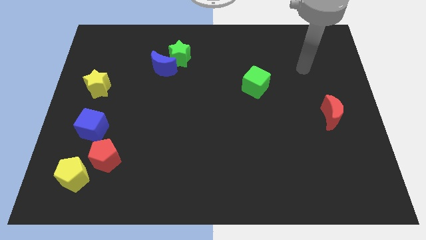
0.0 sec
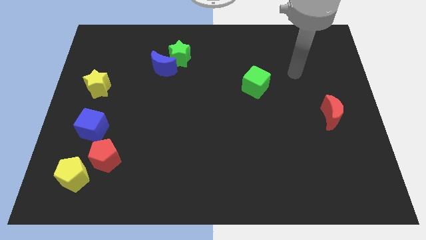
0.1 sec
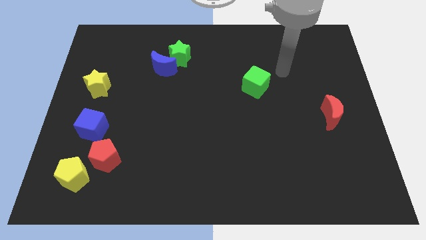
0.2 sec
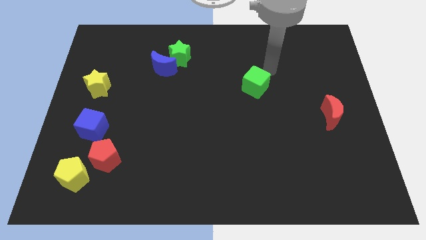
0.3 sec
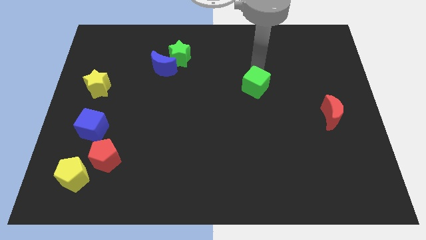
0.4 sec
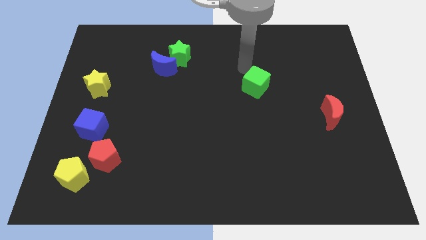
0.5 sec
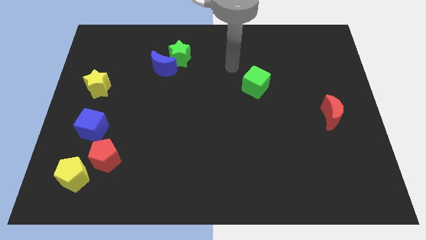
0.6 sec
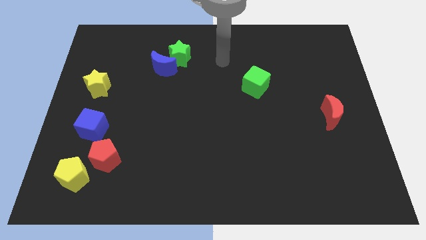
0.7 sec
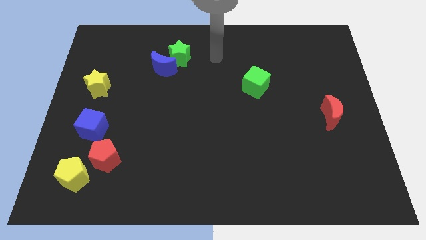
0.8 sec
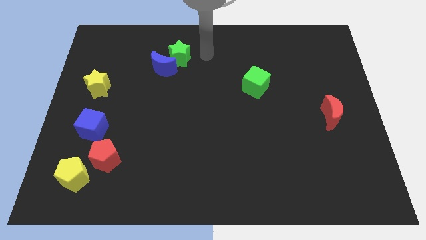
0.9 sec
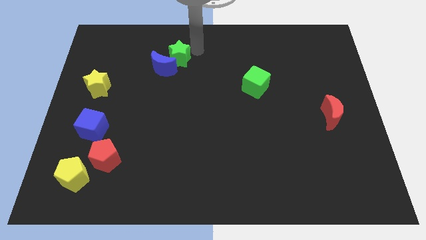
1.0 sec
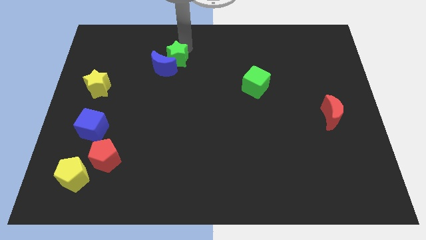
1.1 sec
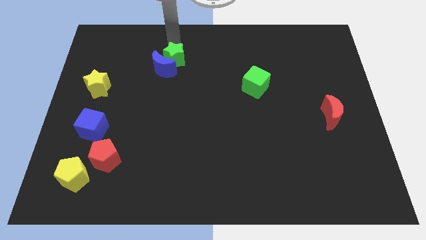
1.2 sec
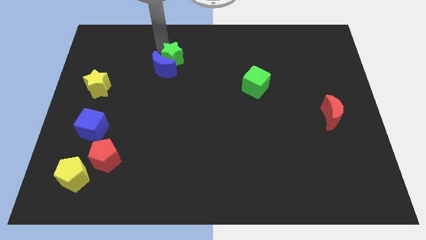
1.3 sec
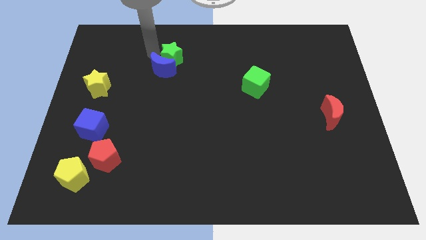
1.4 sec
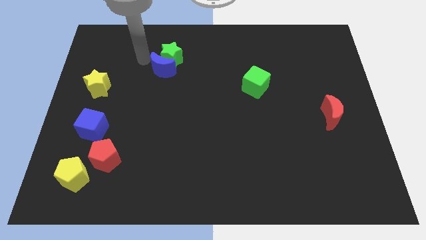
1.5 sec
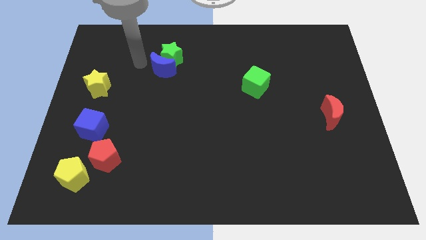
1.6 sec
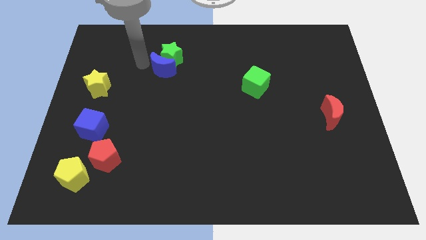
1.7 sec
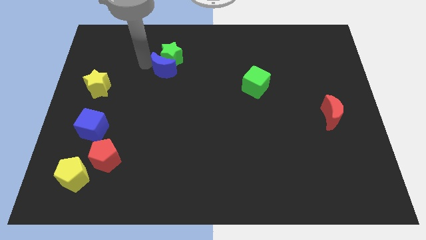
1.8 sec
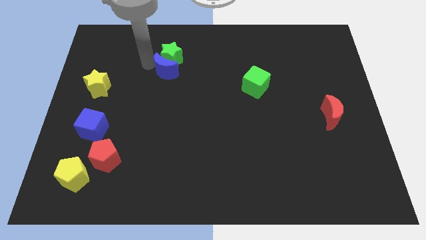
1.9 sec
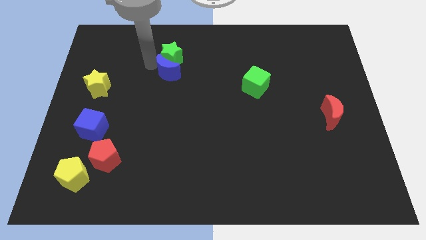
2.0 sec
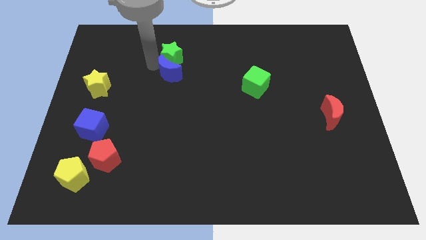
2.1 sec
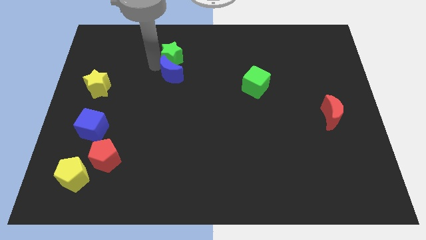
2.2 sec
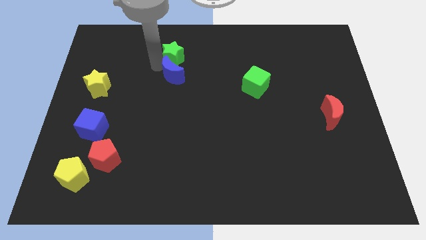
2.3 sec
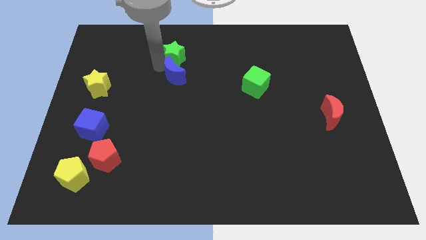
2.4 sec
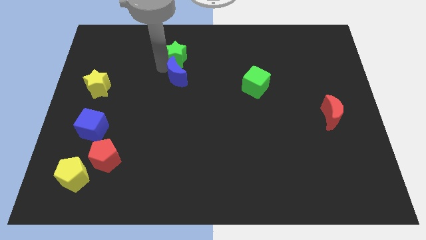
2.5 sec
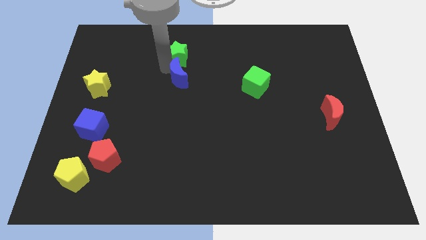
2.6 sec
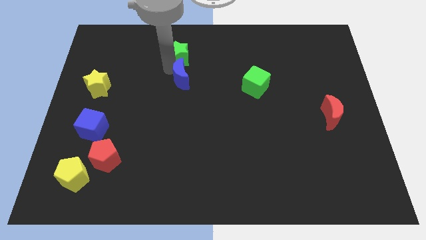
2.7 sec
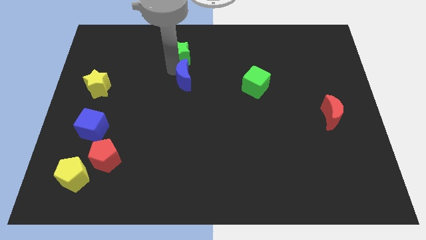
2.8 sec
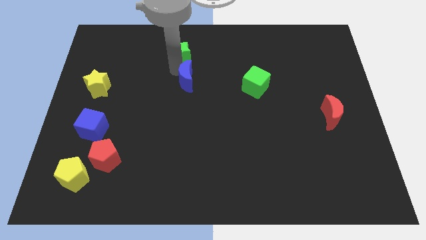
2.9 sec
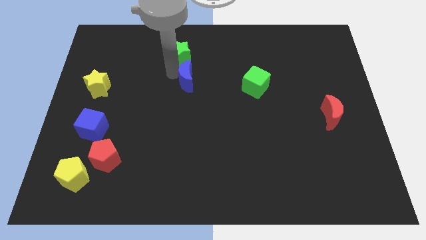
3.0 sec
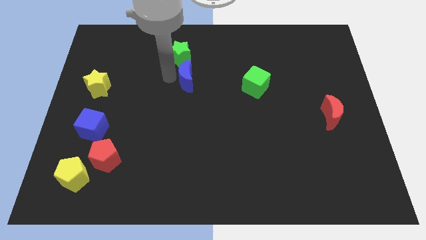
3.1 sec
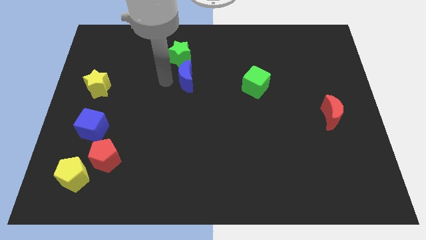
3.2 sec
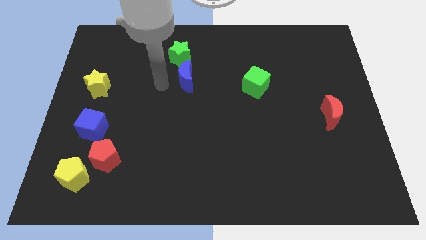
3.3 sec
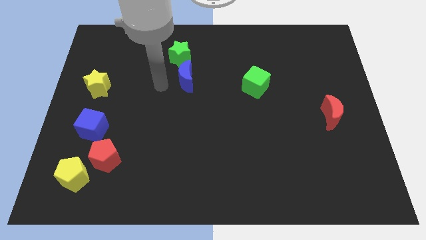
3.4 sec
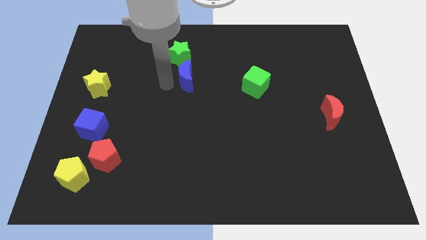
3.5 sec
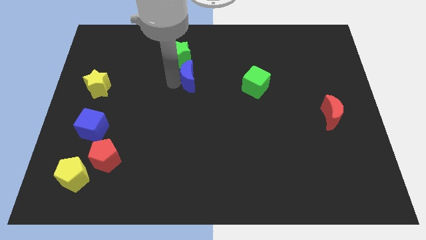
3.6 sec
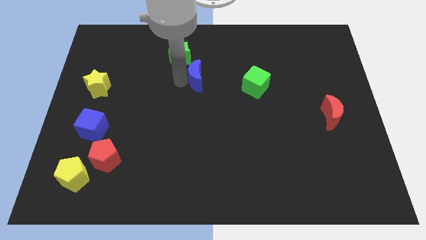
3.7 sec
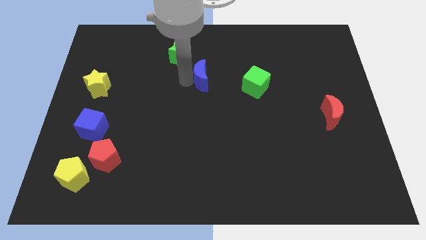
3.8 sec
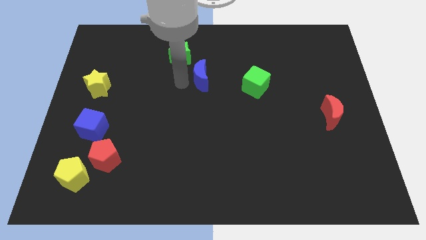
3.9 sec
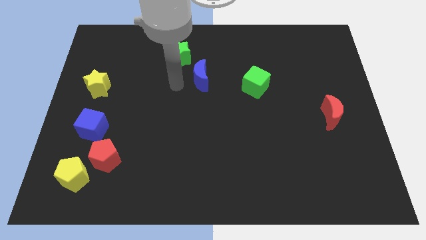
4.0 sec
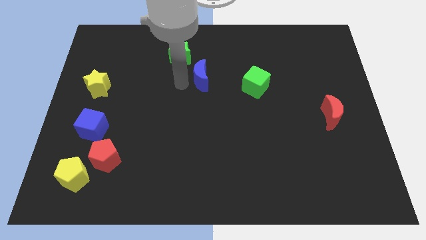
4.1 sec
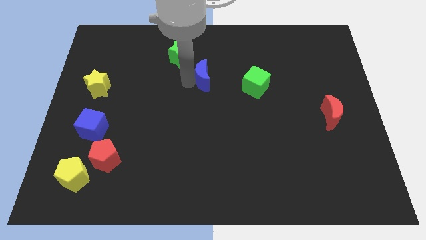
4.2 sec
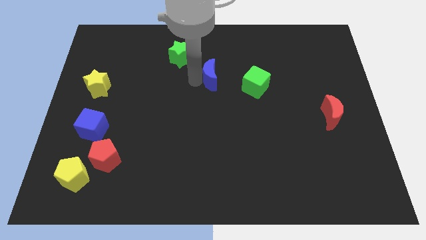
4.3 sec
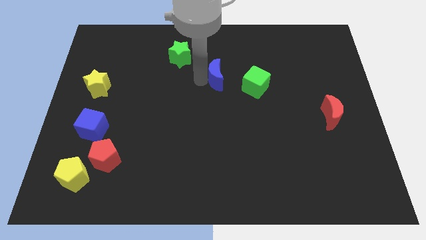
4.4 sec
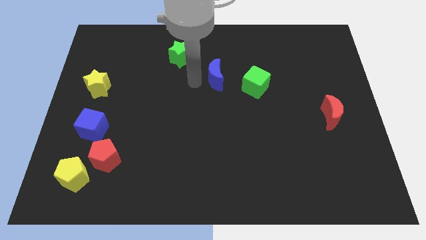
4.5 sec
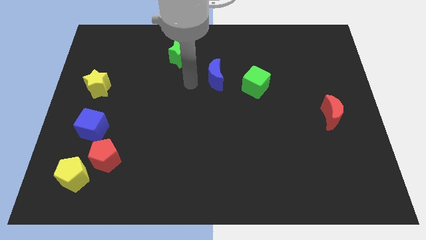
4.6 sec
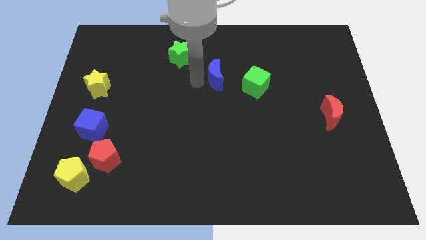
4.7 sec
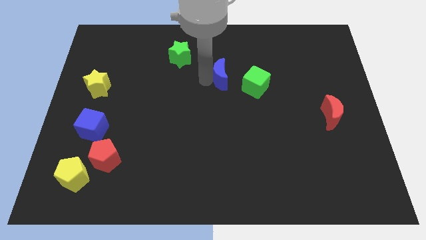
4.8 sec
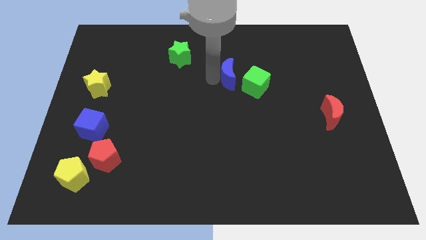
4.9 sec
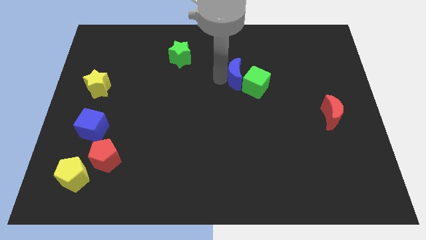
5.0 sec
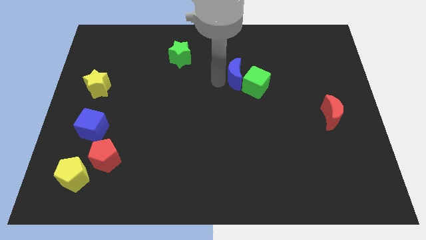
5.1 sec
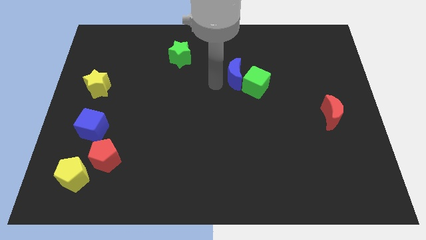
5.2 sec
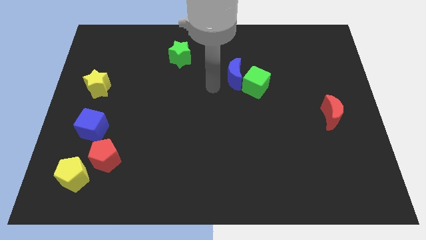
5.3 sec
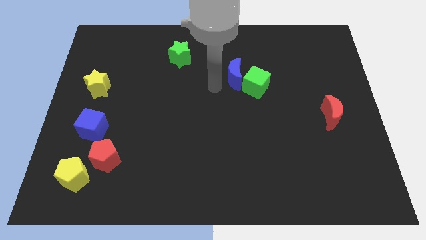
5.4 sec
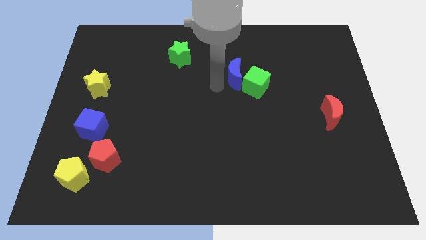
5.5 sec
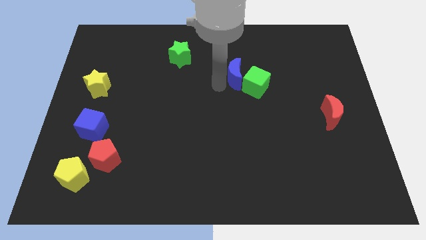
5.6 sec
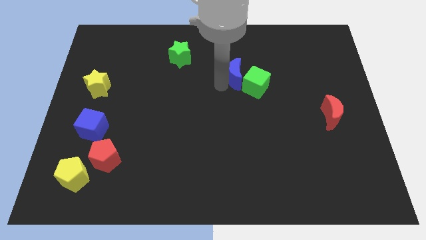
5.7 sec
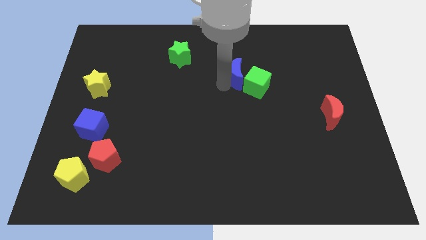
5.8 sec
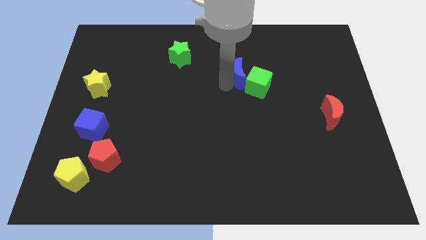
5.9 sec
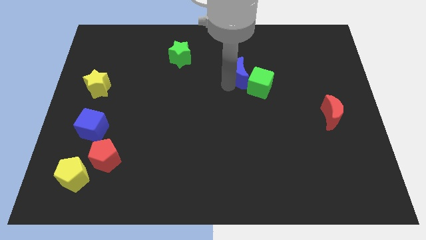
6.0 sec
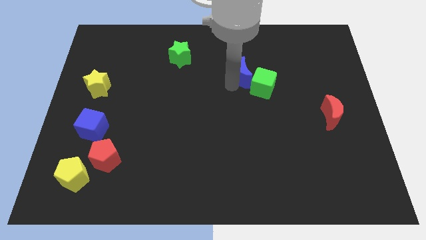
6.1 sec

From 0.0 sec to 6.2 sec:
move the blue moon to the right

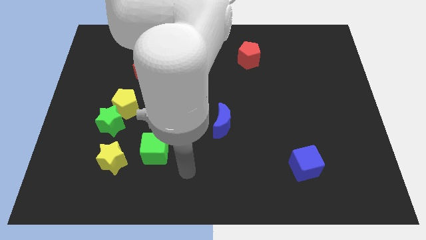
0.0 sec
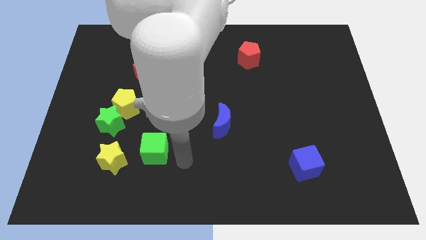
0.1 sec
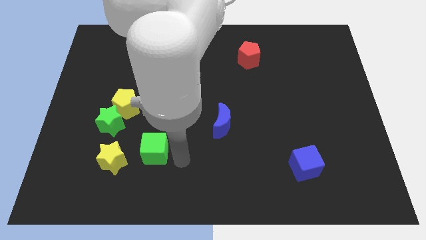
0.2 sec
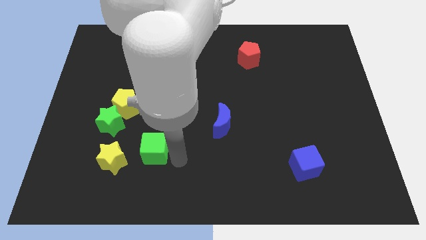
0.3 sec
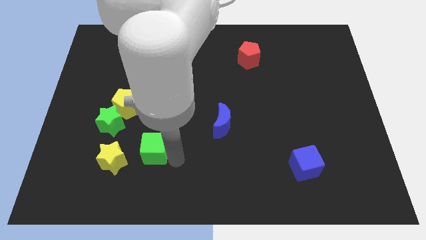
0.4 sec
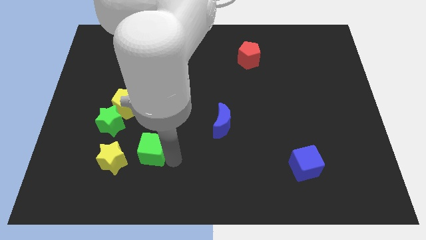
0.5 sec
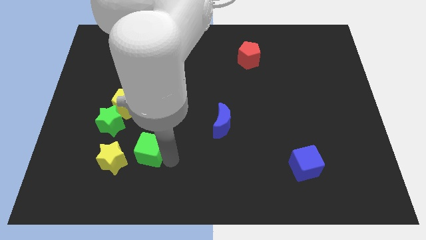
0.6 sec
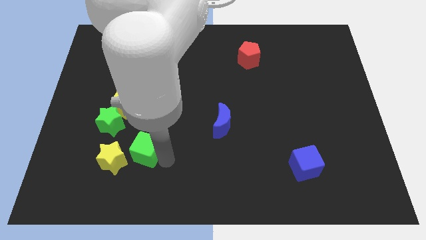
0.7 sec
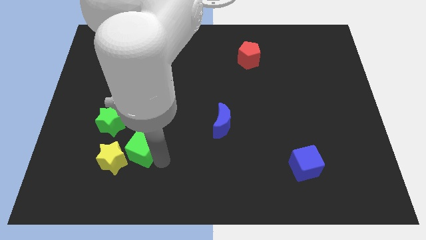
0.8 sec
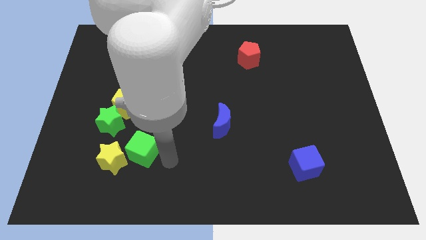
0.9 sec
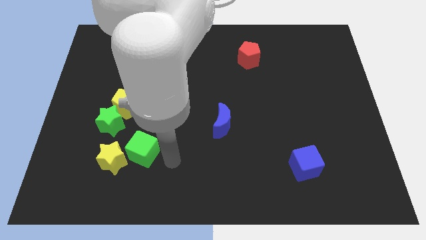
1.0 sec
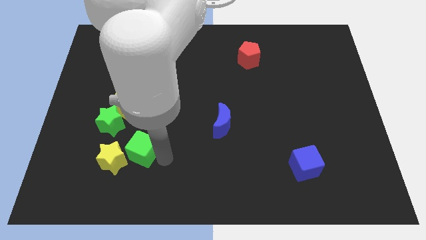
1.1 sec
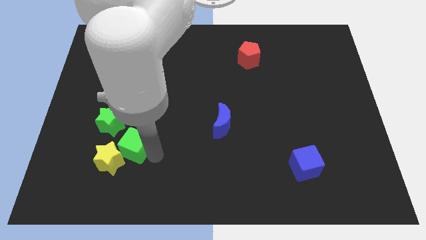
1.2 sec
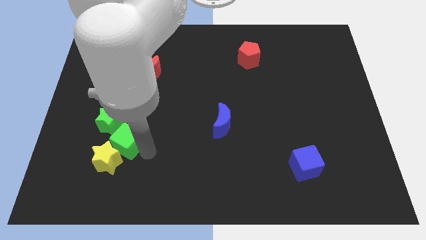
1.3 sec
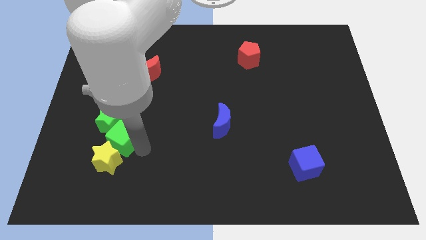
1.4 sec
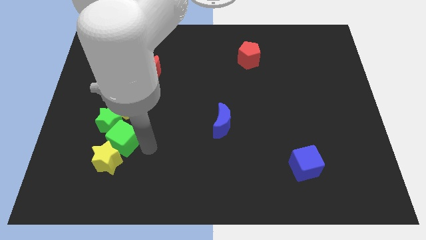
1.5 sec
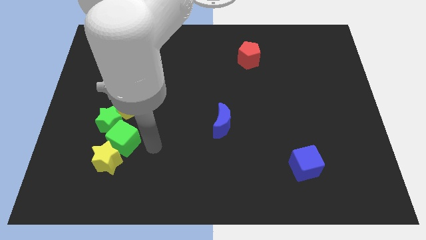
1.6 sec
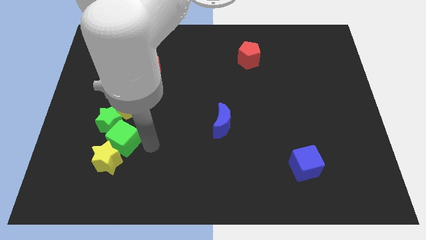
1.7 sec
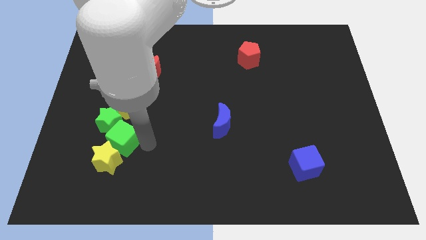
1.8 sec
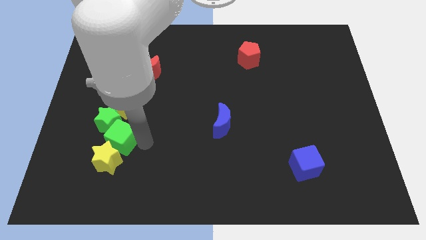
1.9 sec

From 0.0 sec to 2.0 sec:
push the green cube somewhat upwards and then left
